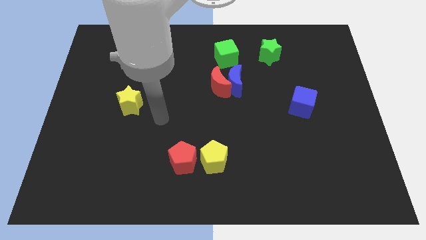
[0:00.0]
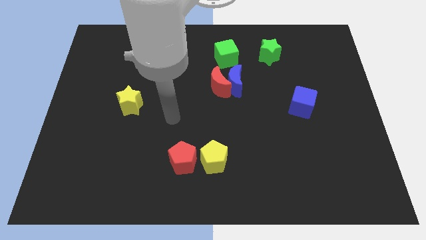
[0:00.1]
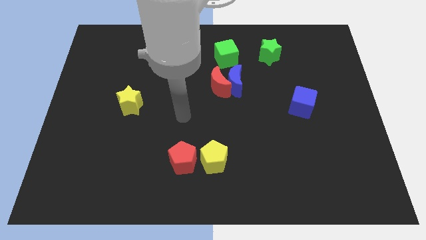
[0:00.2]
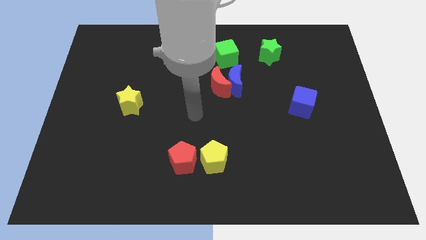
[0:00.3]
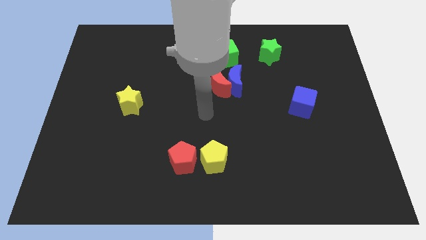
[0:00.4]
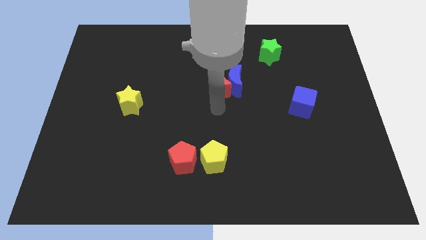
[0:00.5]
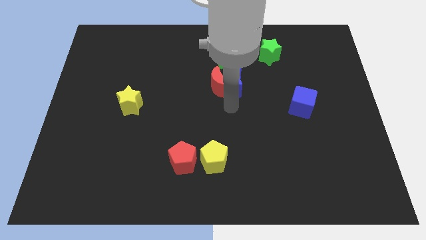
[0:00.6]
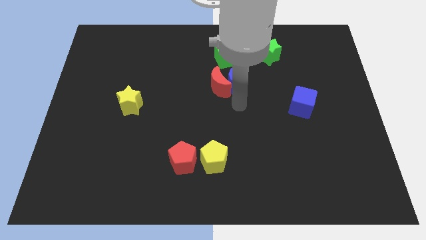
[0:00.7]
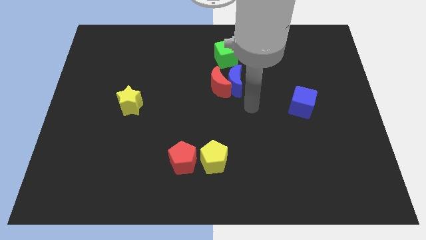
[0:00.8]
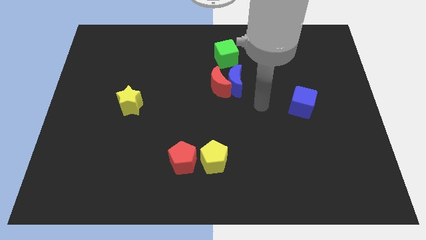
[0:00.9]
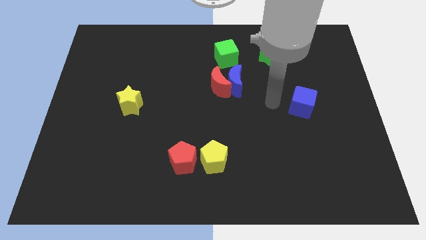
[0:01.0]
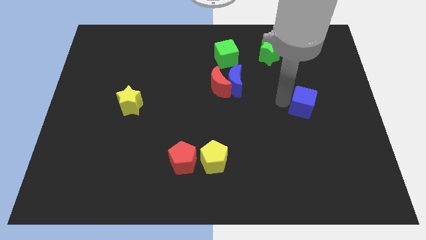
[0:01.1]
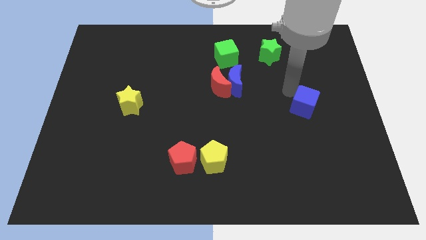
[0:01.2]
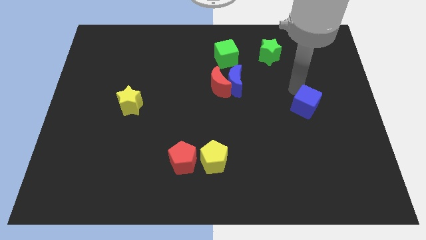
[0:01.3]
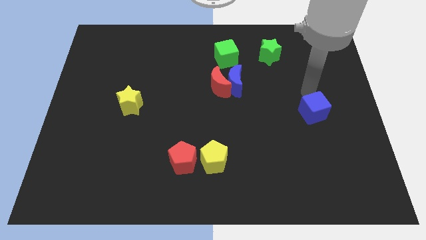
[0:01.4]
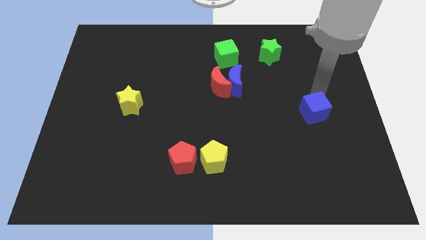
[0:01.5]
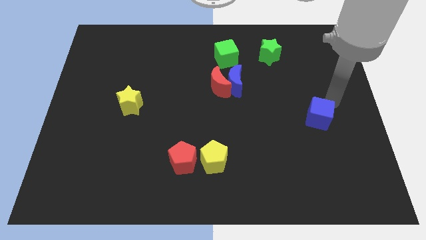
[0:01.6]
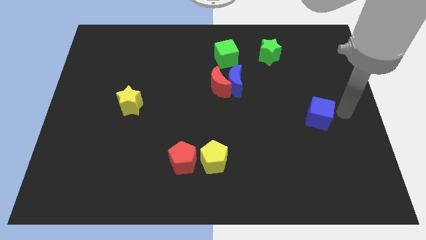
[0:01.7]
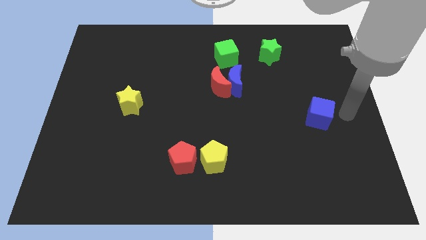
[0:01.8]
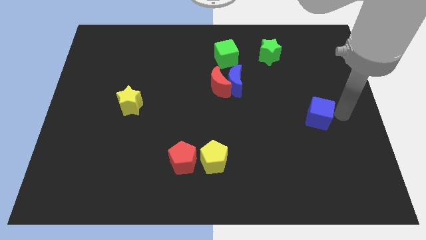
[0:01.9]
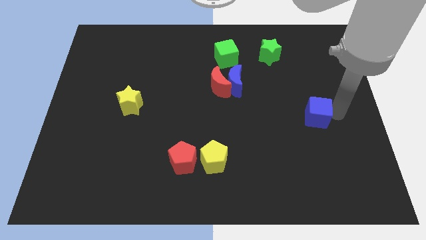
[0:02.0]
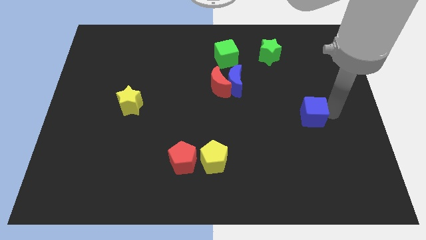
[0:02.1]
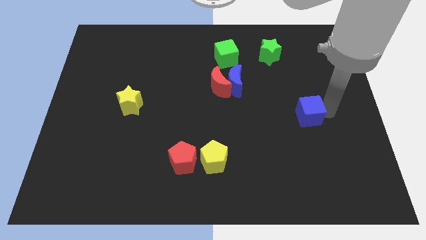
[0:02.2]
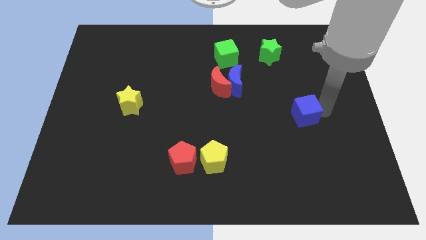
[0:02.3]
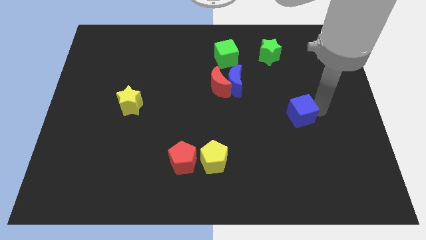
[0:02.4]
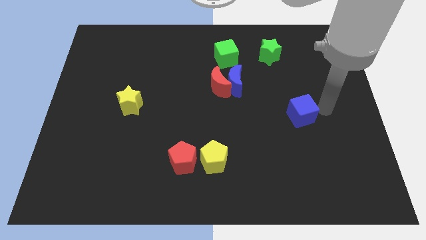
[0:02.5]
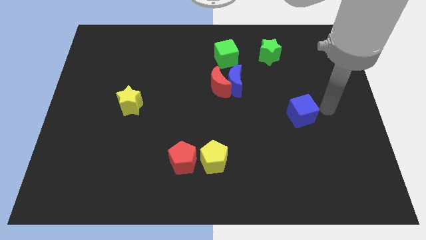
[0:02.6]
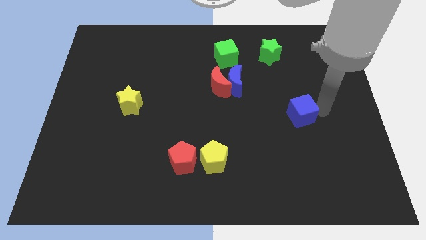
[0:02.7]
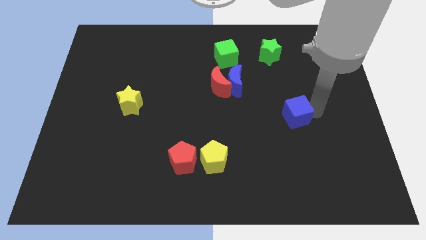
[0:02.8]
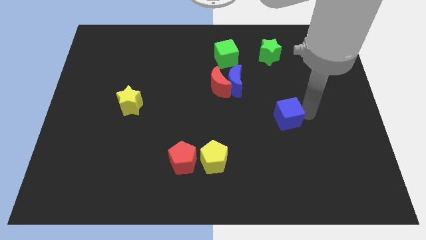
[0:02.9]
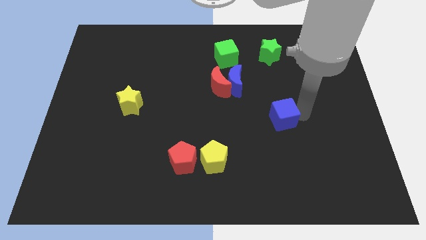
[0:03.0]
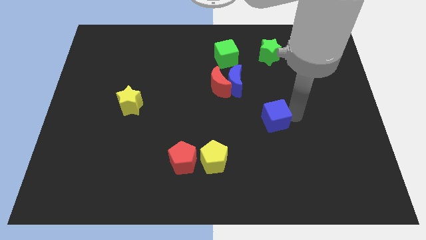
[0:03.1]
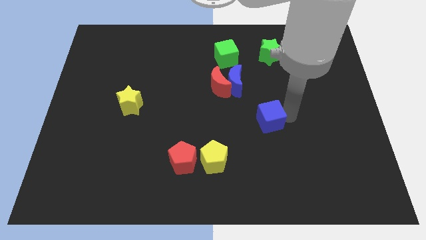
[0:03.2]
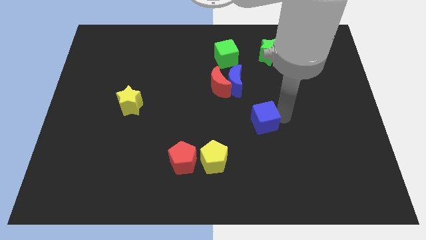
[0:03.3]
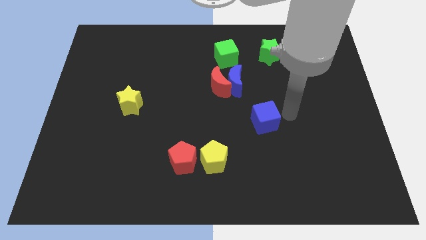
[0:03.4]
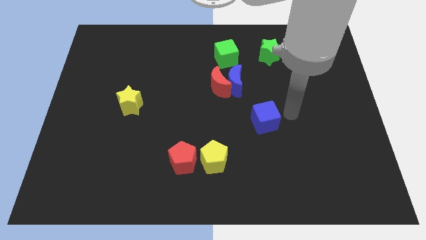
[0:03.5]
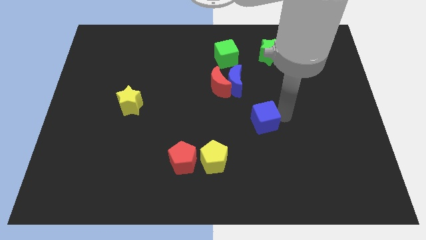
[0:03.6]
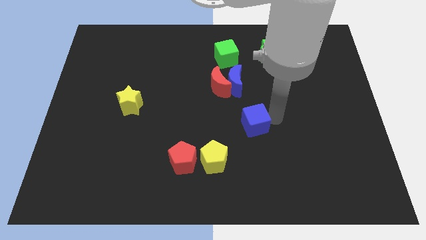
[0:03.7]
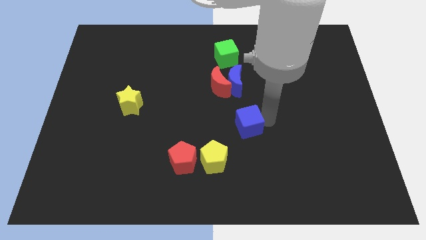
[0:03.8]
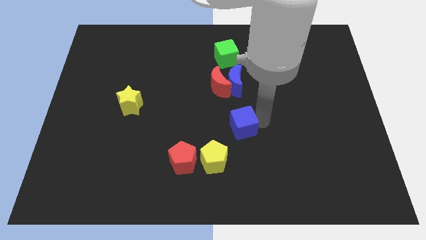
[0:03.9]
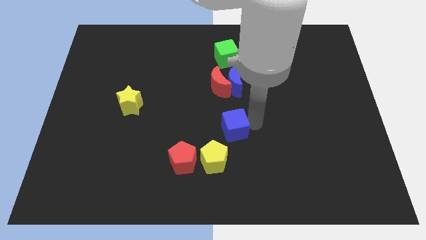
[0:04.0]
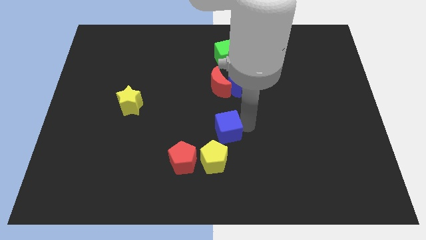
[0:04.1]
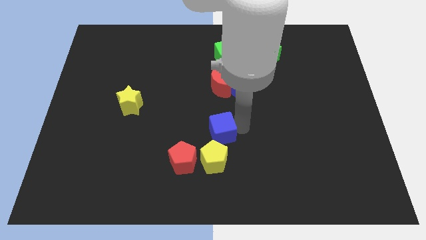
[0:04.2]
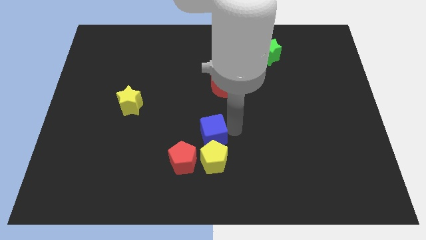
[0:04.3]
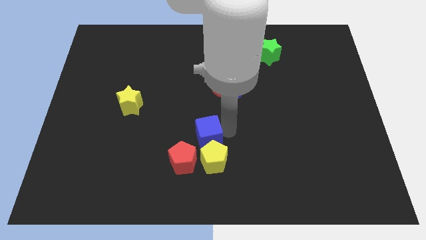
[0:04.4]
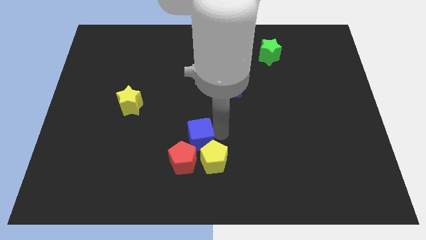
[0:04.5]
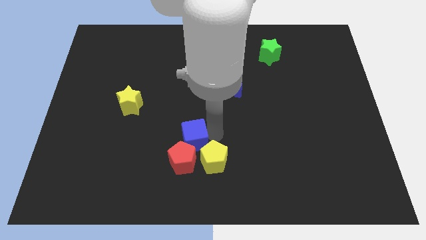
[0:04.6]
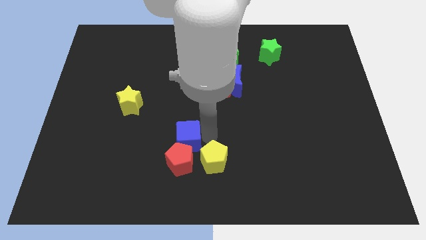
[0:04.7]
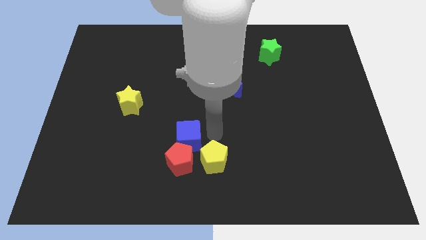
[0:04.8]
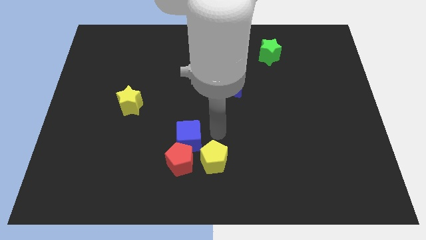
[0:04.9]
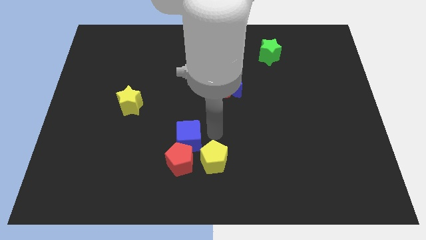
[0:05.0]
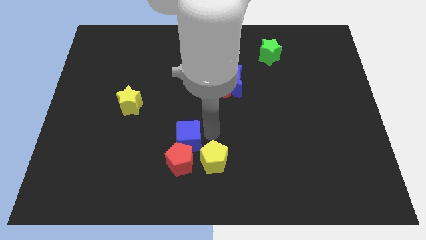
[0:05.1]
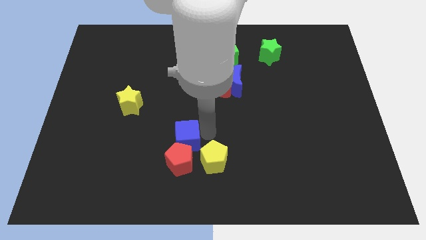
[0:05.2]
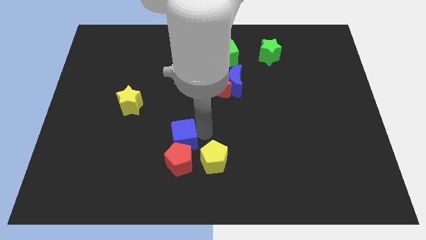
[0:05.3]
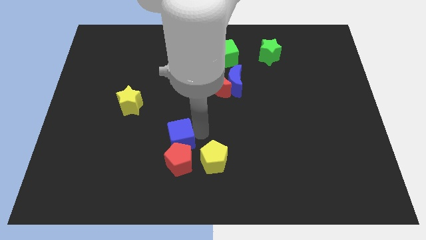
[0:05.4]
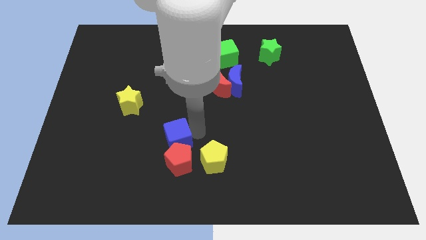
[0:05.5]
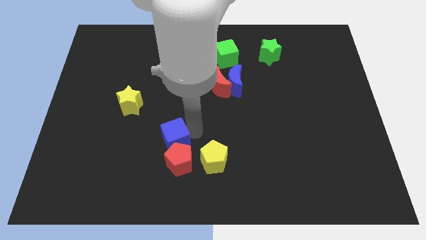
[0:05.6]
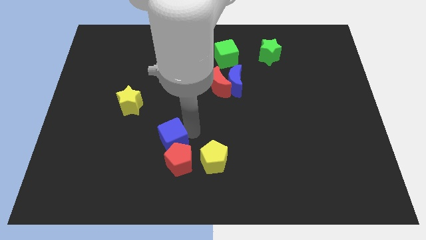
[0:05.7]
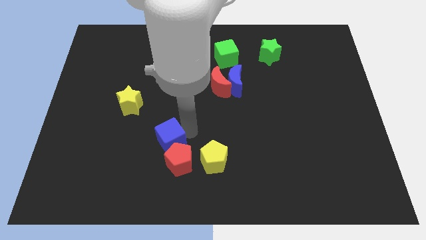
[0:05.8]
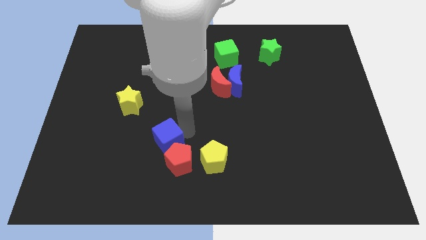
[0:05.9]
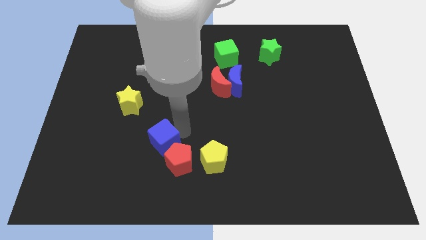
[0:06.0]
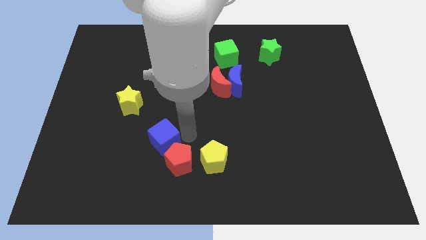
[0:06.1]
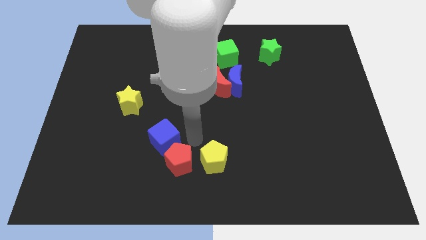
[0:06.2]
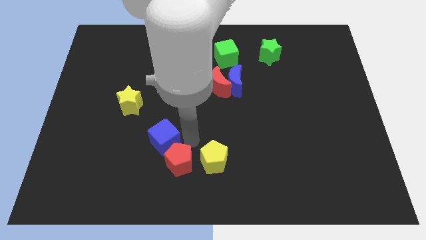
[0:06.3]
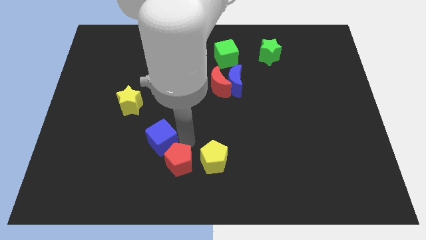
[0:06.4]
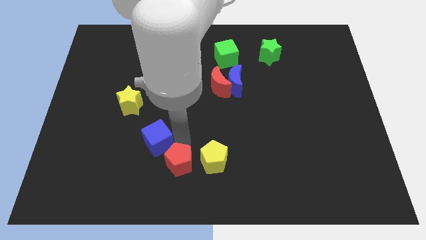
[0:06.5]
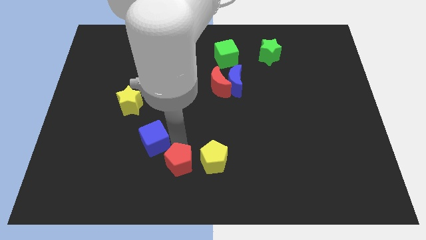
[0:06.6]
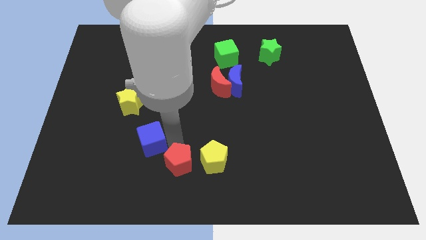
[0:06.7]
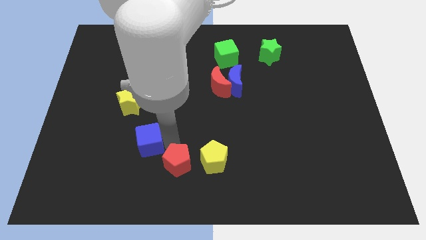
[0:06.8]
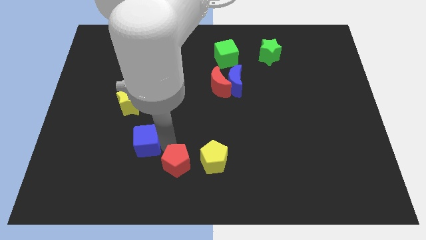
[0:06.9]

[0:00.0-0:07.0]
move the blue cube to the bottom side of the yellow star
